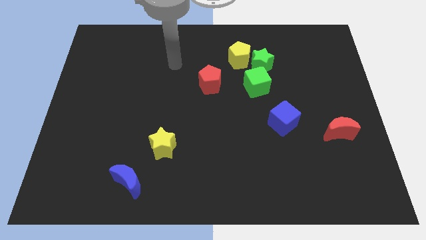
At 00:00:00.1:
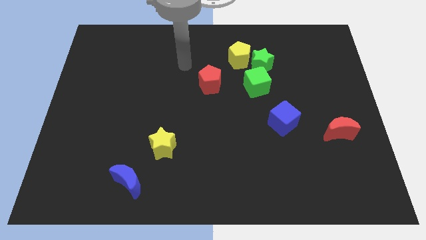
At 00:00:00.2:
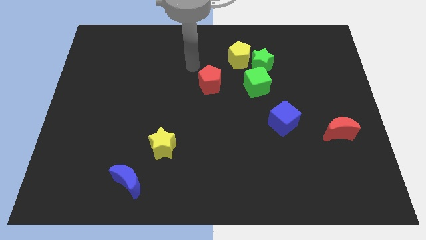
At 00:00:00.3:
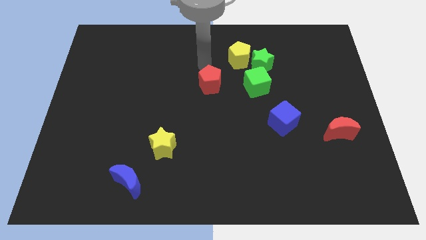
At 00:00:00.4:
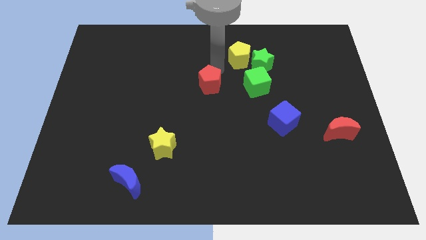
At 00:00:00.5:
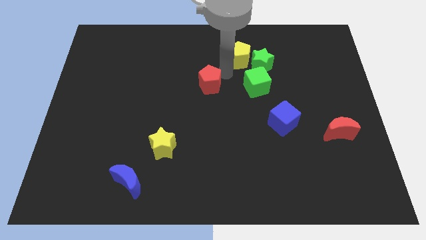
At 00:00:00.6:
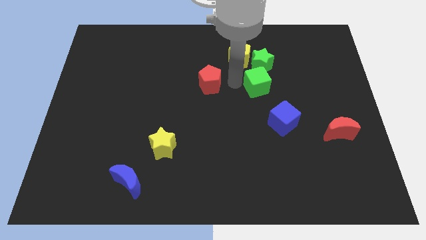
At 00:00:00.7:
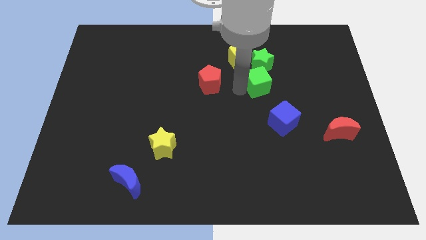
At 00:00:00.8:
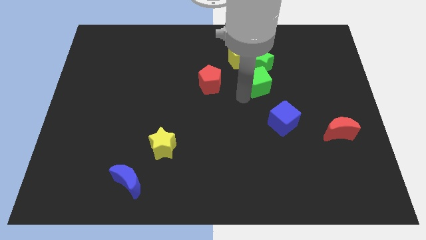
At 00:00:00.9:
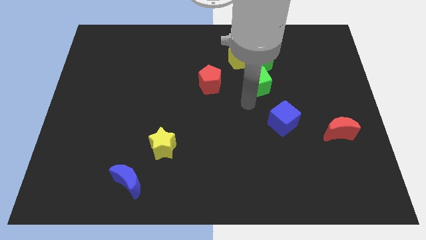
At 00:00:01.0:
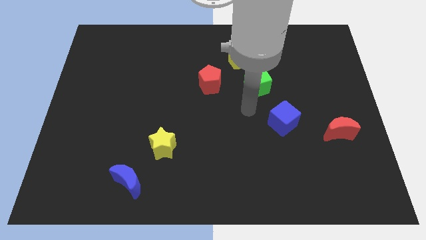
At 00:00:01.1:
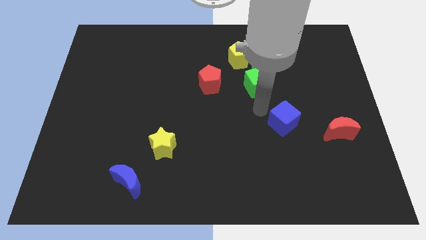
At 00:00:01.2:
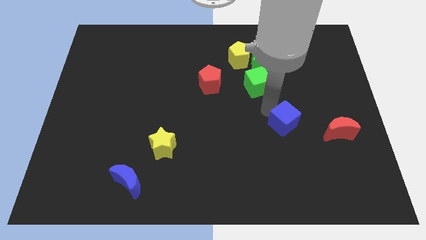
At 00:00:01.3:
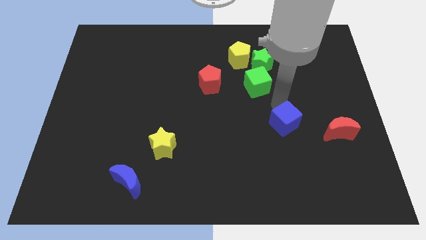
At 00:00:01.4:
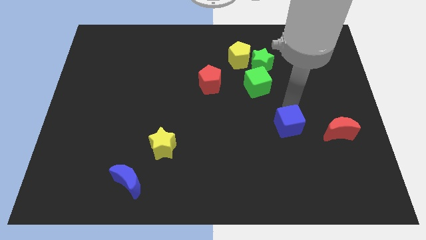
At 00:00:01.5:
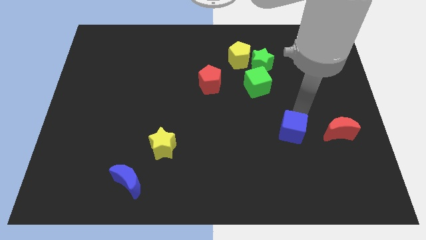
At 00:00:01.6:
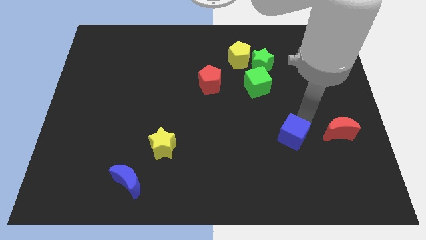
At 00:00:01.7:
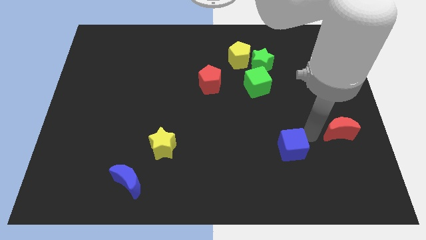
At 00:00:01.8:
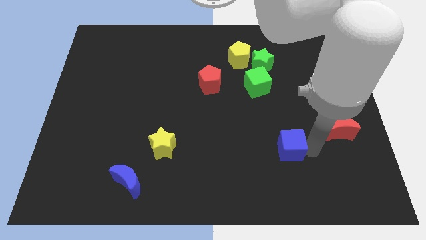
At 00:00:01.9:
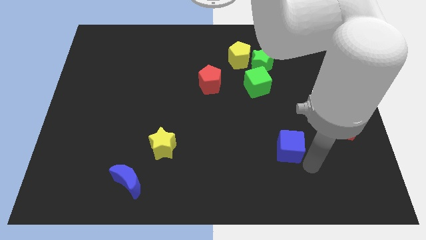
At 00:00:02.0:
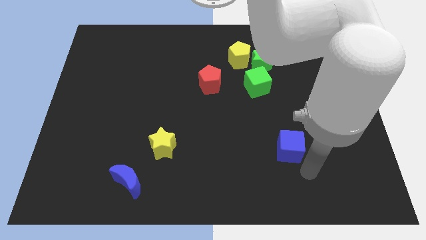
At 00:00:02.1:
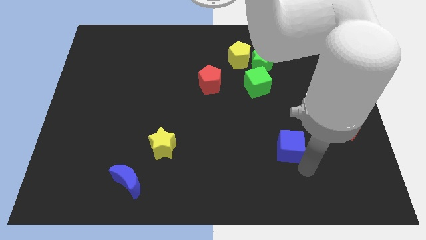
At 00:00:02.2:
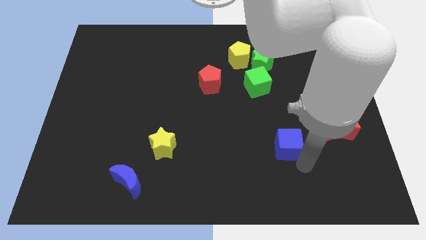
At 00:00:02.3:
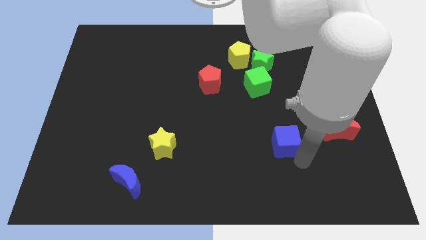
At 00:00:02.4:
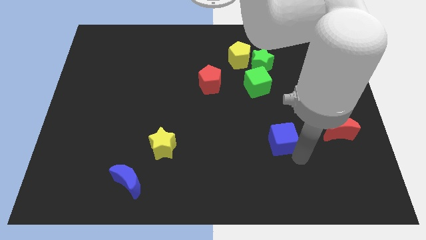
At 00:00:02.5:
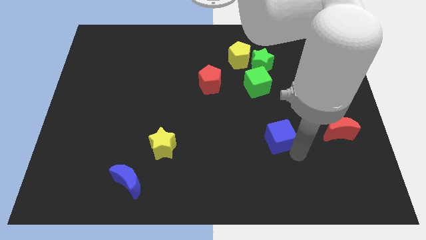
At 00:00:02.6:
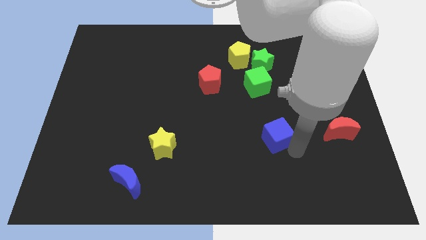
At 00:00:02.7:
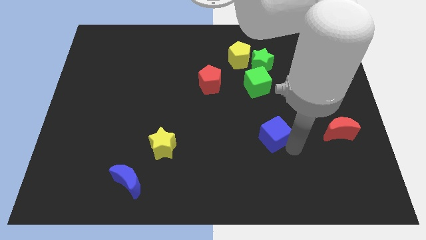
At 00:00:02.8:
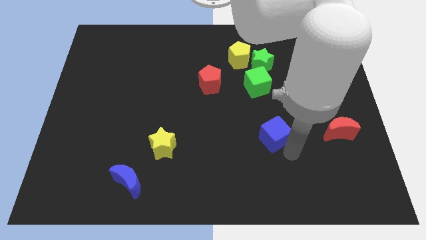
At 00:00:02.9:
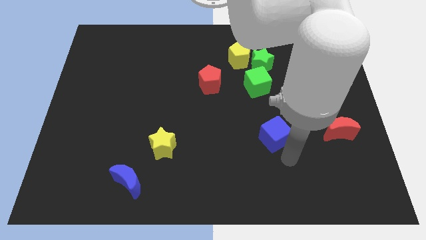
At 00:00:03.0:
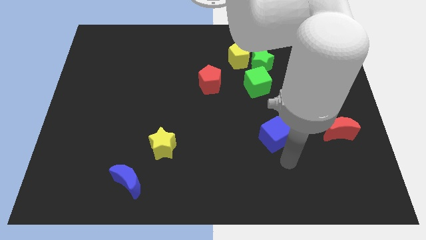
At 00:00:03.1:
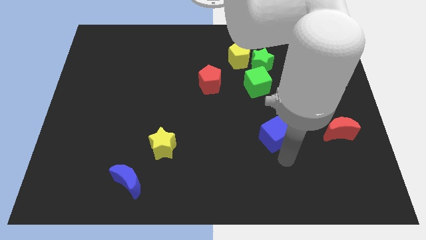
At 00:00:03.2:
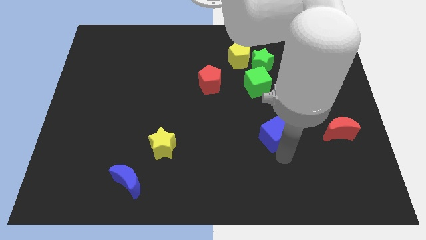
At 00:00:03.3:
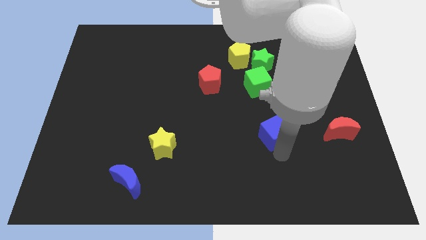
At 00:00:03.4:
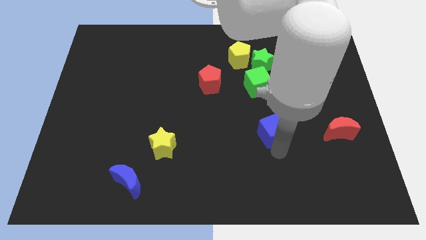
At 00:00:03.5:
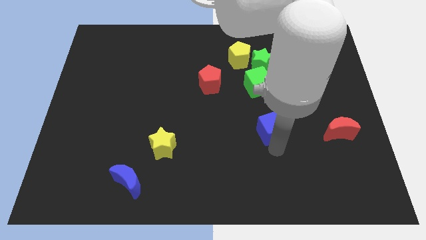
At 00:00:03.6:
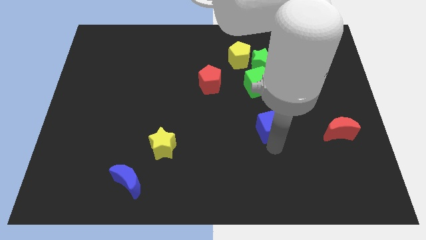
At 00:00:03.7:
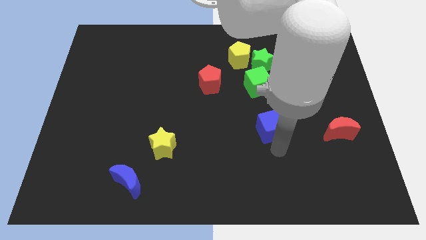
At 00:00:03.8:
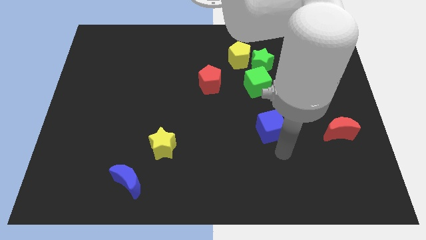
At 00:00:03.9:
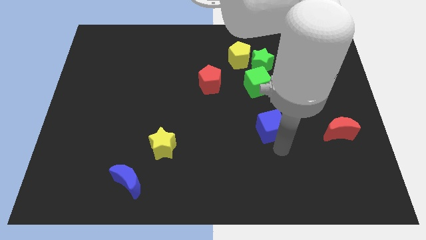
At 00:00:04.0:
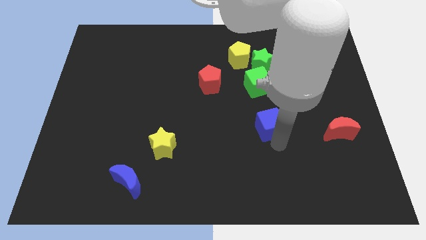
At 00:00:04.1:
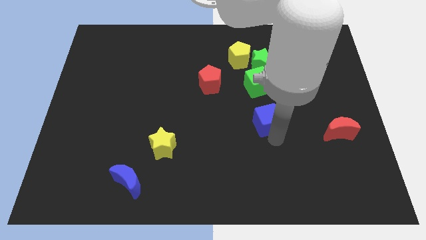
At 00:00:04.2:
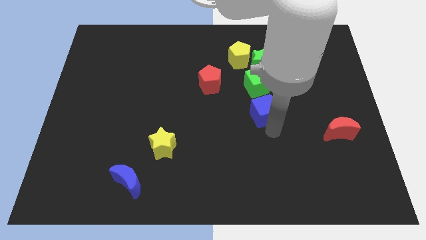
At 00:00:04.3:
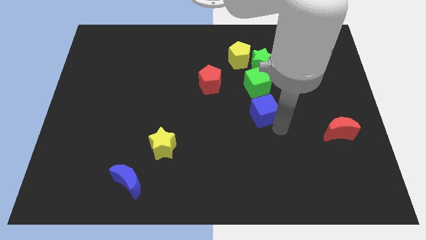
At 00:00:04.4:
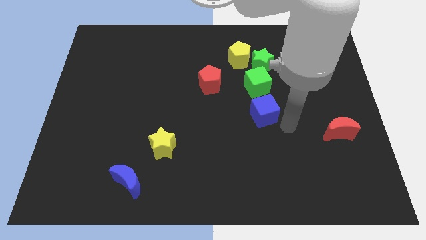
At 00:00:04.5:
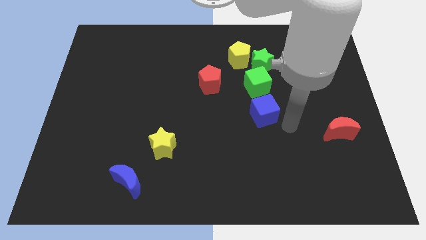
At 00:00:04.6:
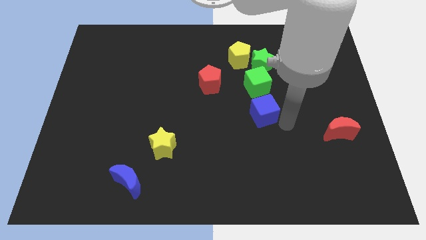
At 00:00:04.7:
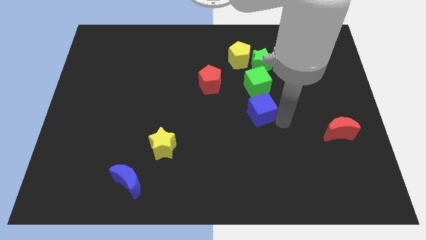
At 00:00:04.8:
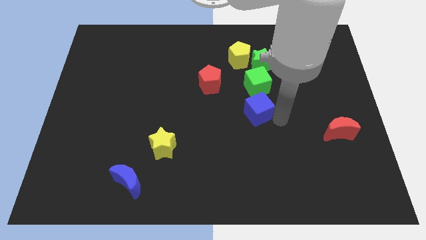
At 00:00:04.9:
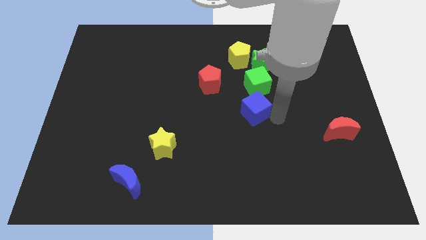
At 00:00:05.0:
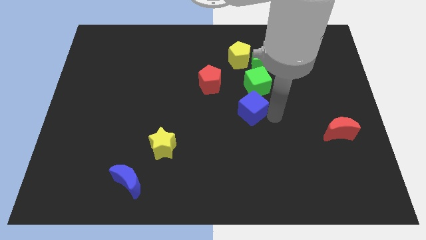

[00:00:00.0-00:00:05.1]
push the blue cube to the bottom right side of the red pentagon

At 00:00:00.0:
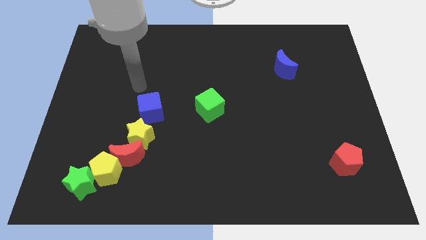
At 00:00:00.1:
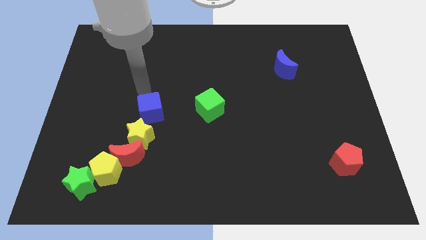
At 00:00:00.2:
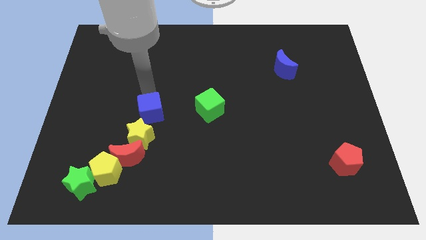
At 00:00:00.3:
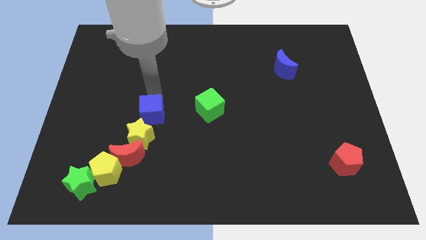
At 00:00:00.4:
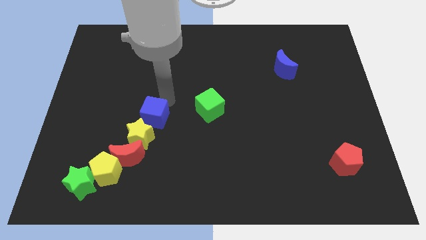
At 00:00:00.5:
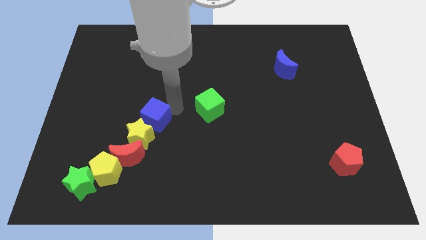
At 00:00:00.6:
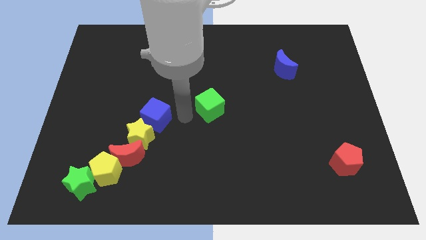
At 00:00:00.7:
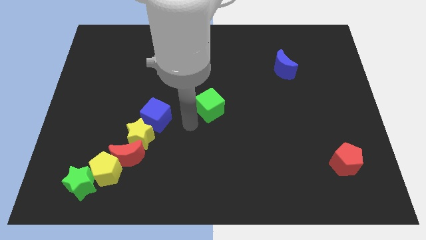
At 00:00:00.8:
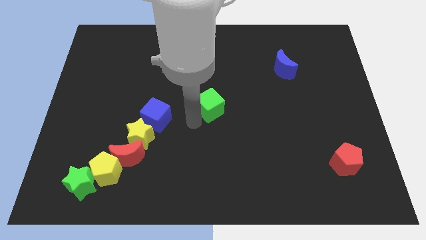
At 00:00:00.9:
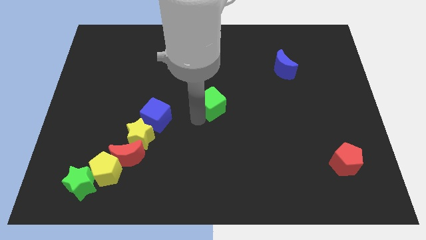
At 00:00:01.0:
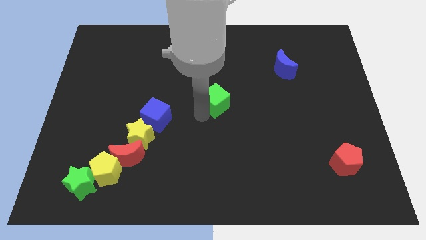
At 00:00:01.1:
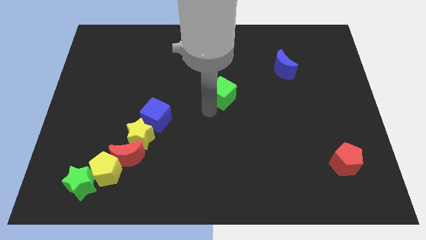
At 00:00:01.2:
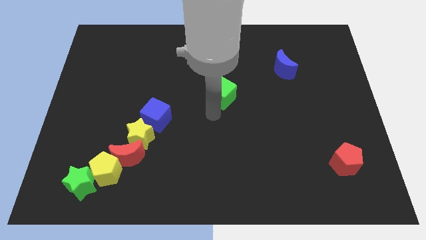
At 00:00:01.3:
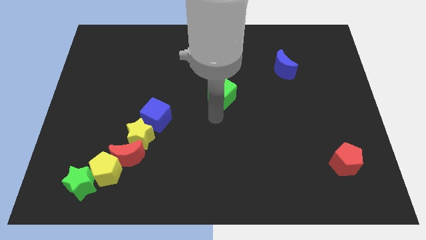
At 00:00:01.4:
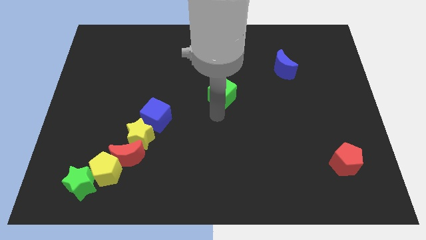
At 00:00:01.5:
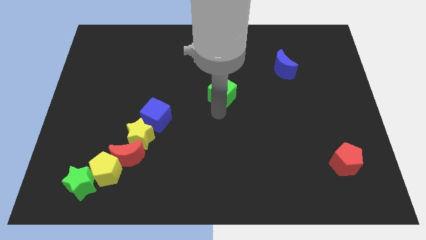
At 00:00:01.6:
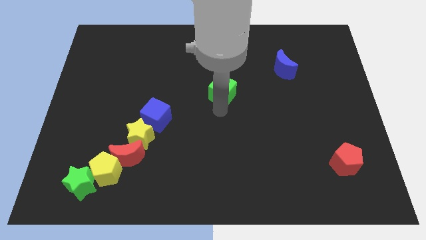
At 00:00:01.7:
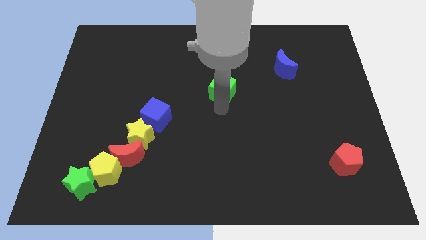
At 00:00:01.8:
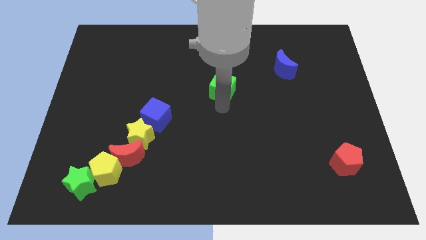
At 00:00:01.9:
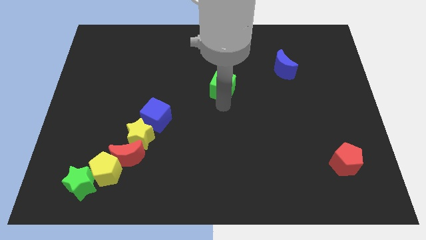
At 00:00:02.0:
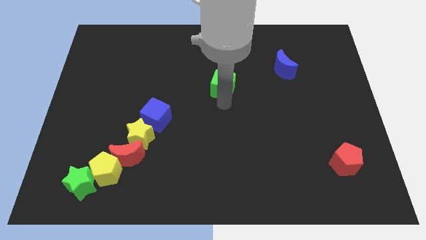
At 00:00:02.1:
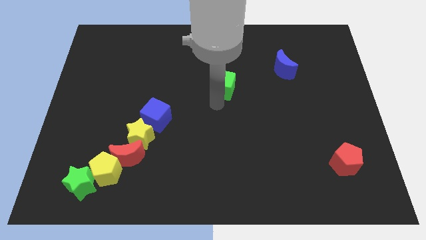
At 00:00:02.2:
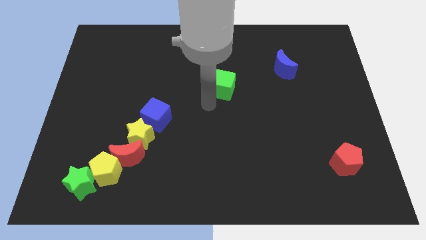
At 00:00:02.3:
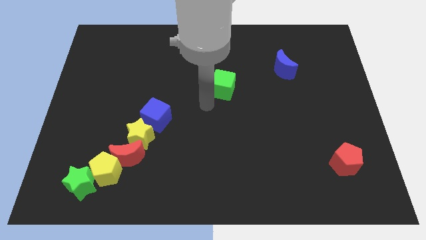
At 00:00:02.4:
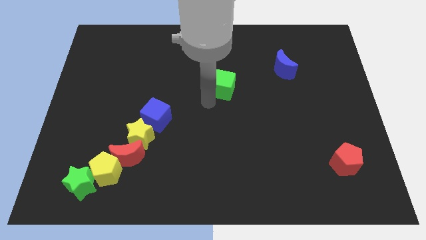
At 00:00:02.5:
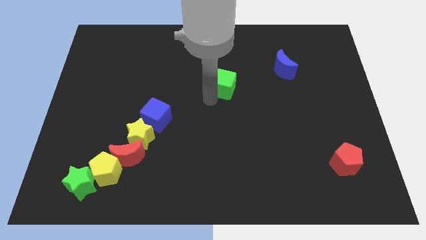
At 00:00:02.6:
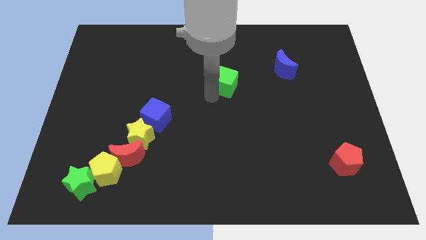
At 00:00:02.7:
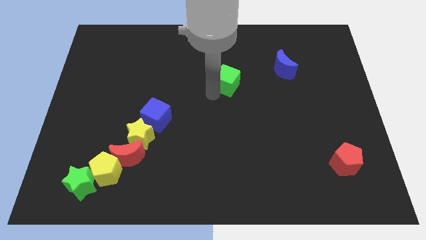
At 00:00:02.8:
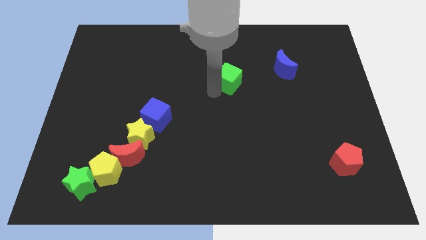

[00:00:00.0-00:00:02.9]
move the green cube to the left side of the blue moon
